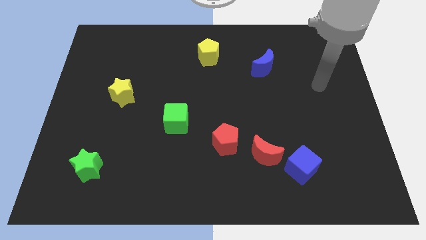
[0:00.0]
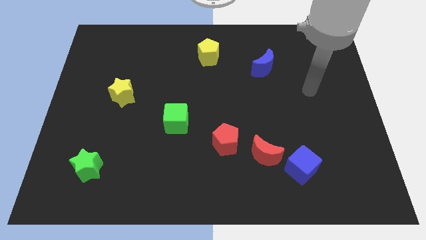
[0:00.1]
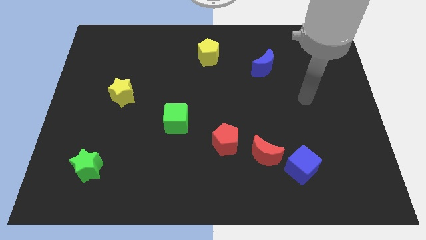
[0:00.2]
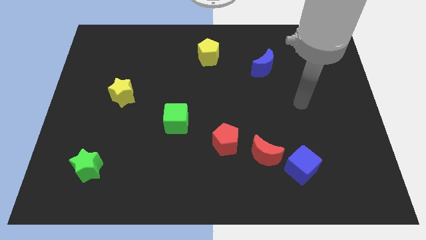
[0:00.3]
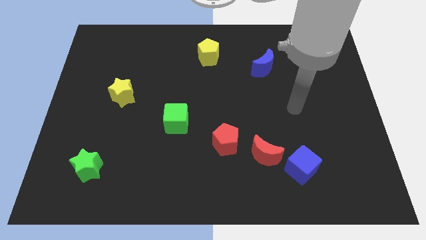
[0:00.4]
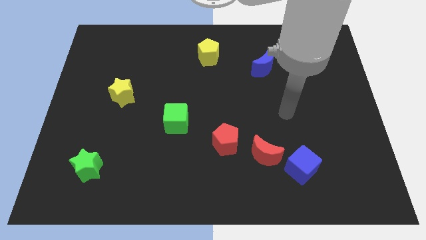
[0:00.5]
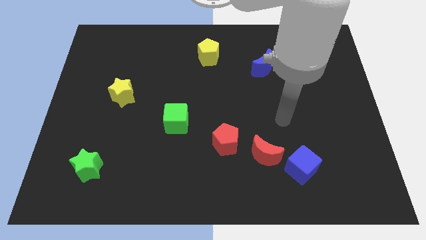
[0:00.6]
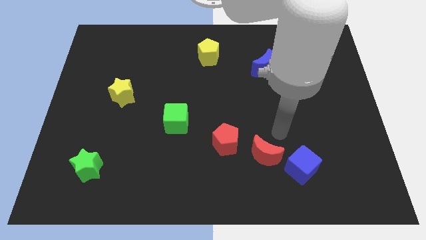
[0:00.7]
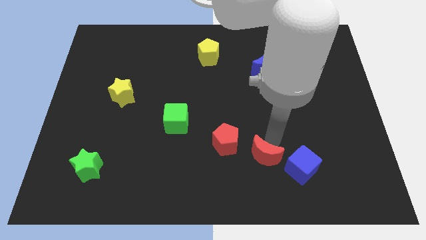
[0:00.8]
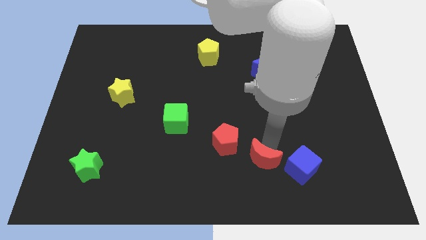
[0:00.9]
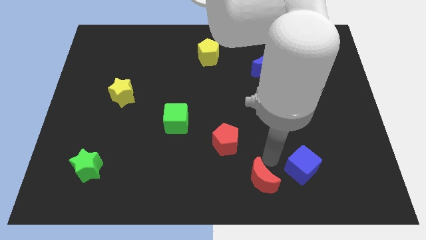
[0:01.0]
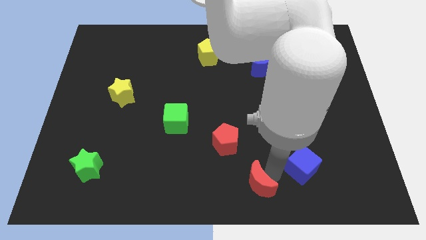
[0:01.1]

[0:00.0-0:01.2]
separate the blue cube from the red moon

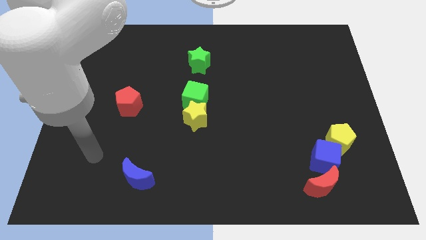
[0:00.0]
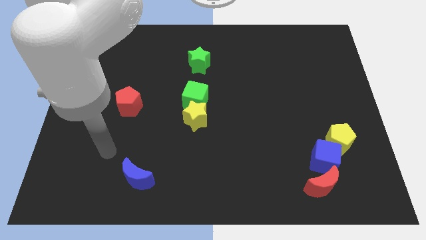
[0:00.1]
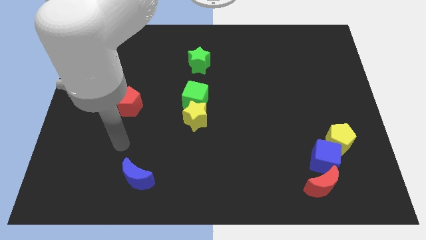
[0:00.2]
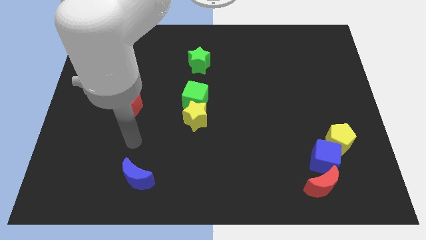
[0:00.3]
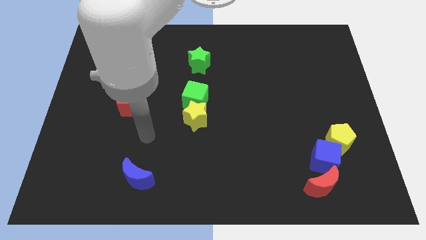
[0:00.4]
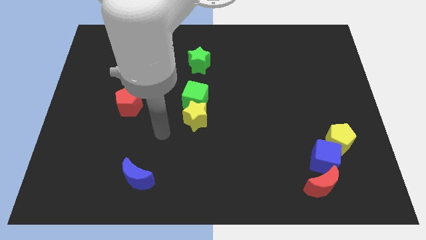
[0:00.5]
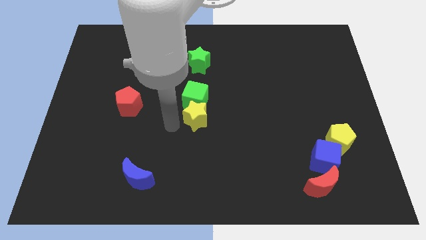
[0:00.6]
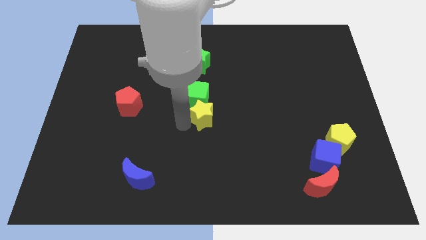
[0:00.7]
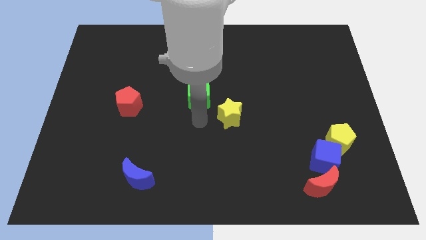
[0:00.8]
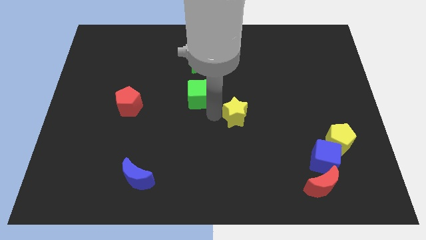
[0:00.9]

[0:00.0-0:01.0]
pull the green cube apart from the yellow star

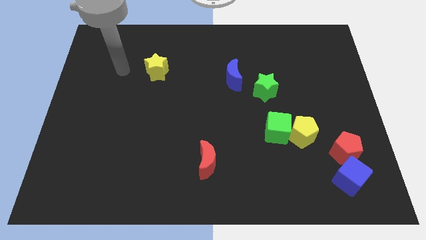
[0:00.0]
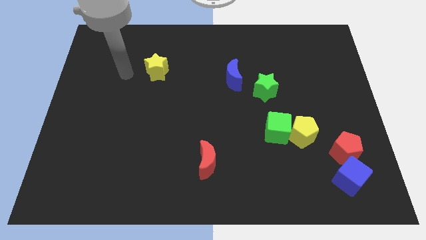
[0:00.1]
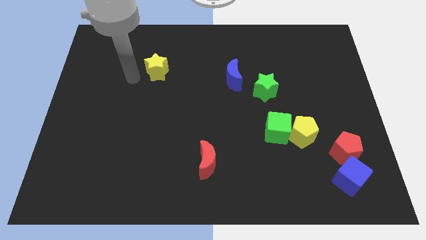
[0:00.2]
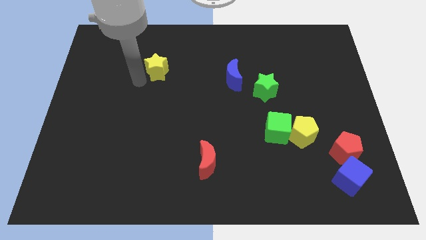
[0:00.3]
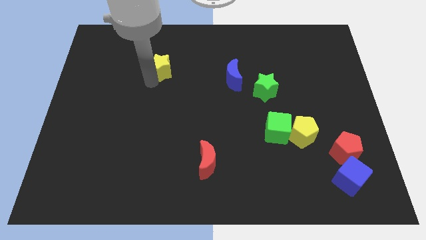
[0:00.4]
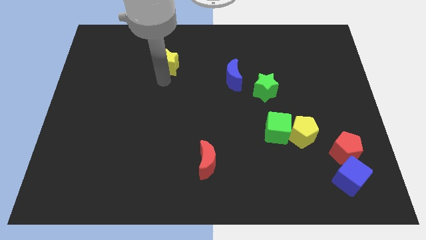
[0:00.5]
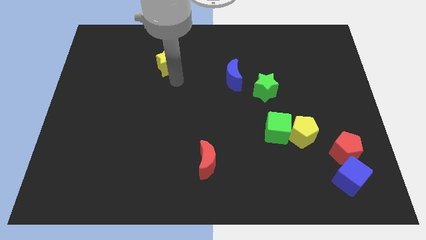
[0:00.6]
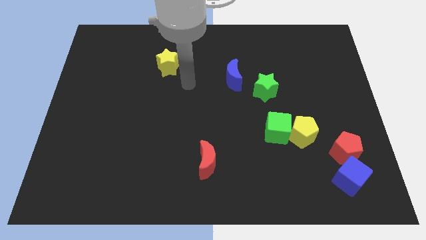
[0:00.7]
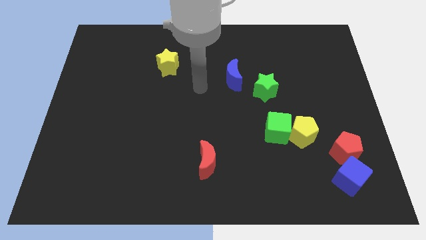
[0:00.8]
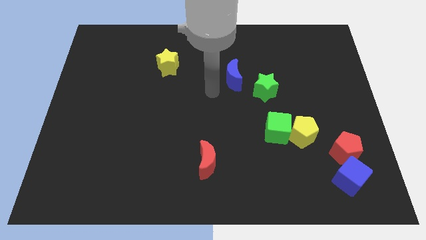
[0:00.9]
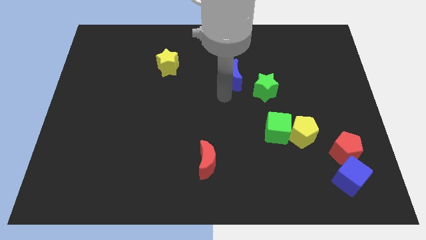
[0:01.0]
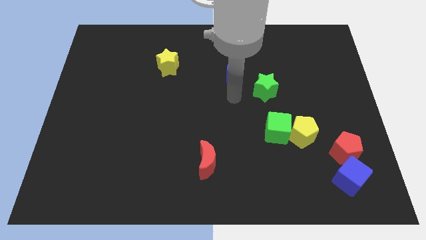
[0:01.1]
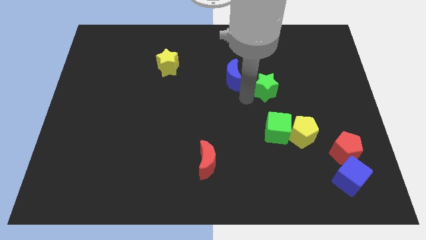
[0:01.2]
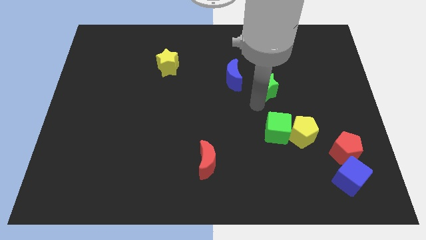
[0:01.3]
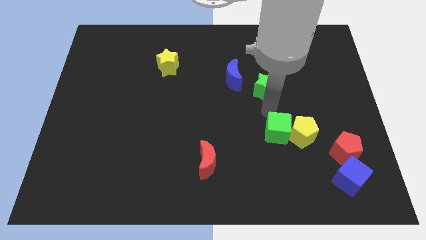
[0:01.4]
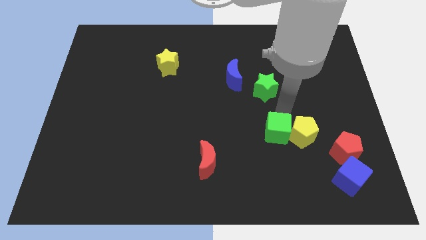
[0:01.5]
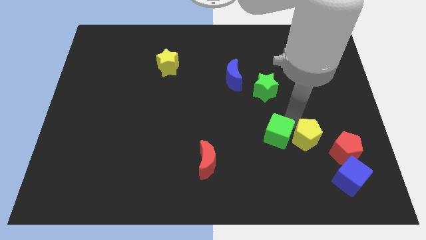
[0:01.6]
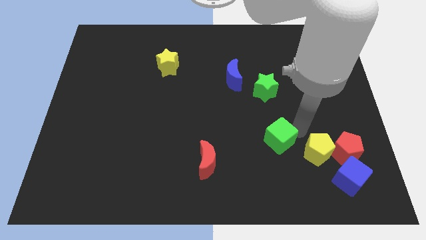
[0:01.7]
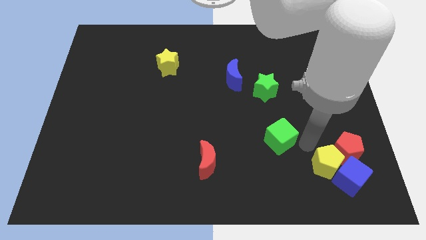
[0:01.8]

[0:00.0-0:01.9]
pull the green cube apart from the yellow pentagon

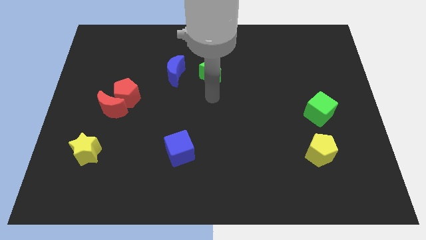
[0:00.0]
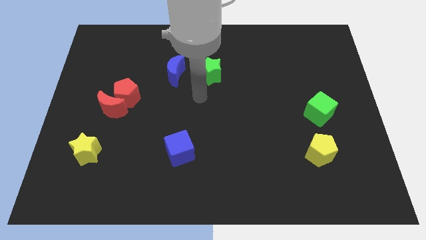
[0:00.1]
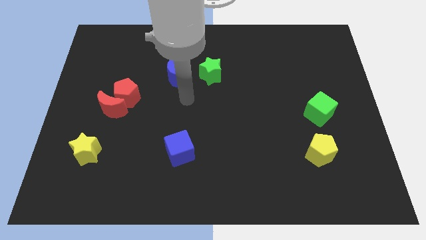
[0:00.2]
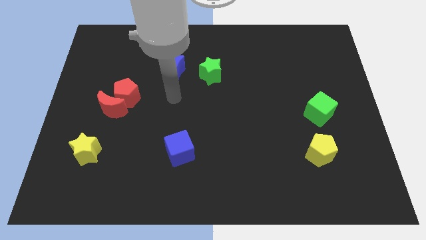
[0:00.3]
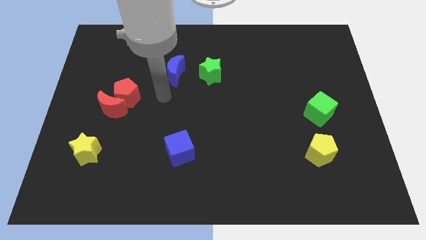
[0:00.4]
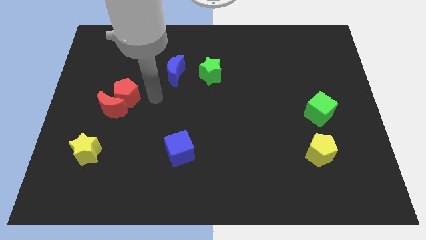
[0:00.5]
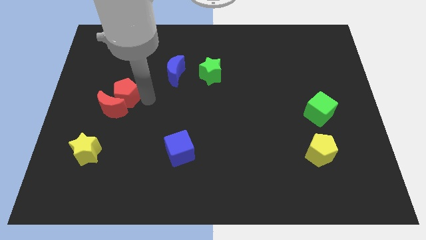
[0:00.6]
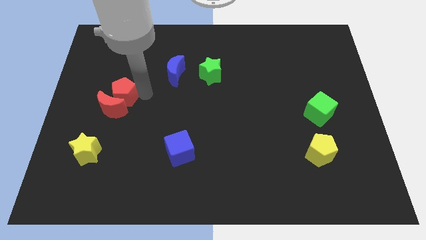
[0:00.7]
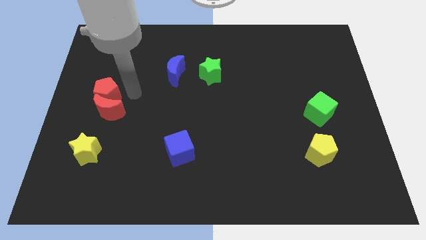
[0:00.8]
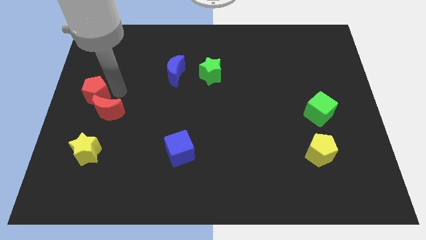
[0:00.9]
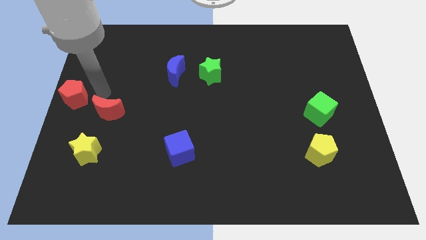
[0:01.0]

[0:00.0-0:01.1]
separate the red moon from the red pentagon

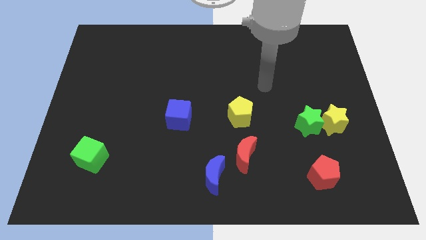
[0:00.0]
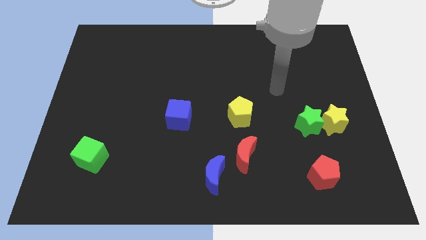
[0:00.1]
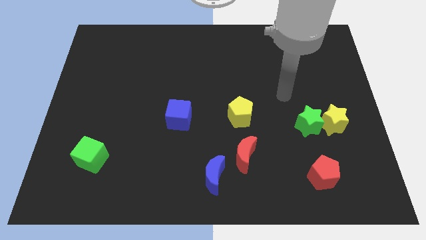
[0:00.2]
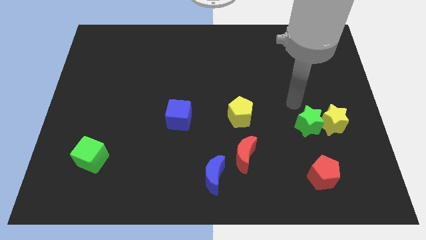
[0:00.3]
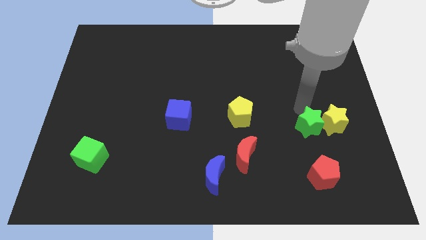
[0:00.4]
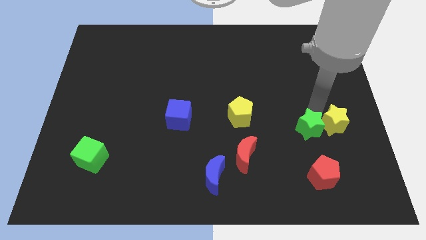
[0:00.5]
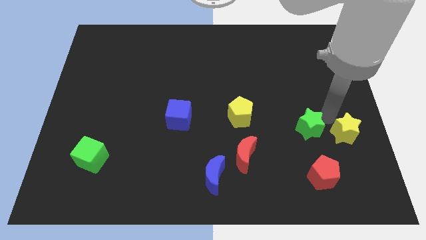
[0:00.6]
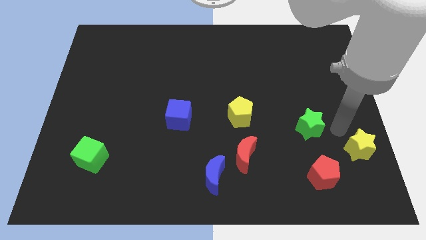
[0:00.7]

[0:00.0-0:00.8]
pull the green star apart from the yellow star

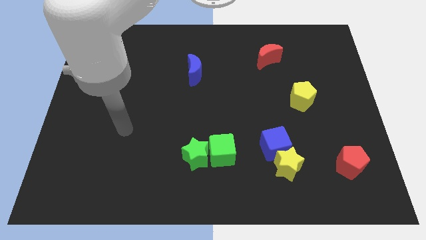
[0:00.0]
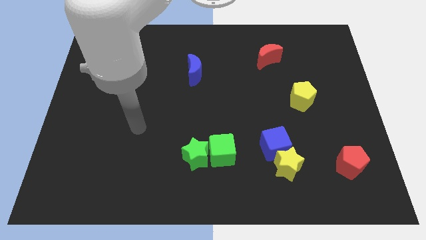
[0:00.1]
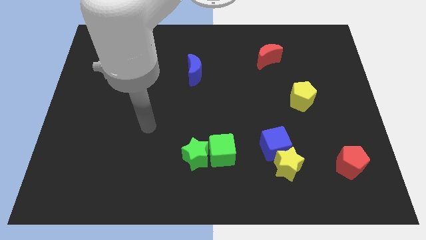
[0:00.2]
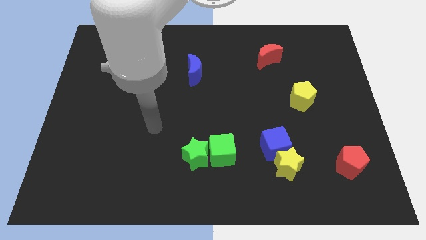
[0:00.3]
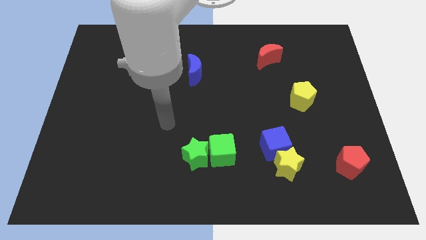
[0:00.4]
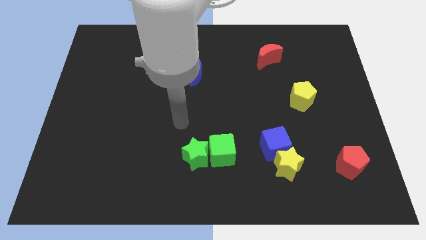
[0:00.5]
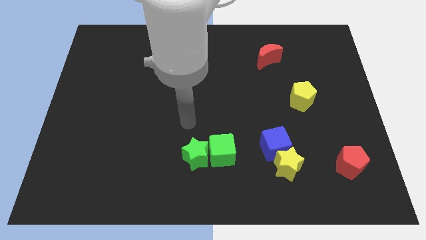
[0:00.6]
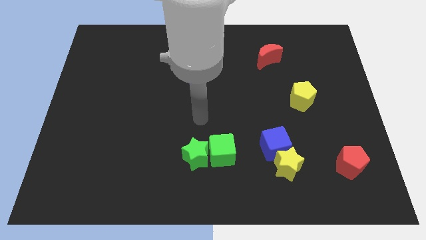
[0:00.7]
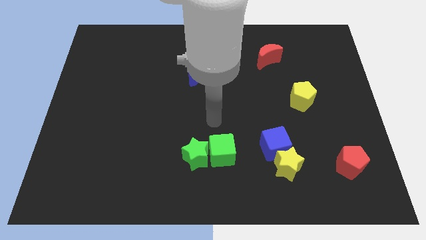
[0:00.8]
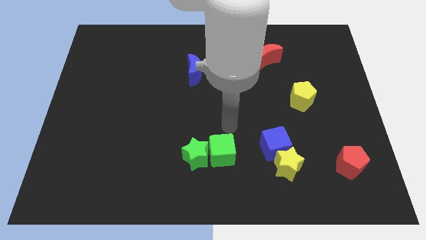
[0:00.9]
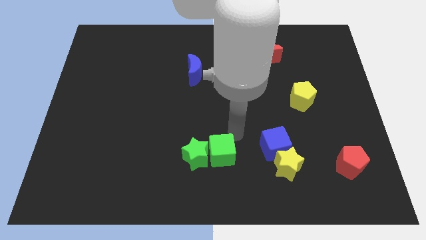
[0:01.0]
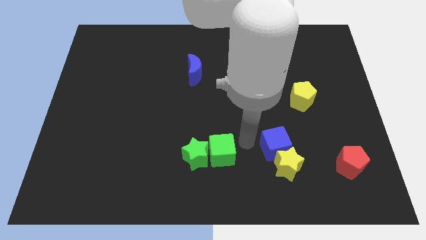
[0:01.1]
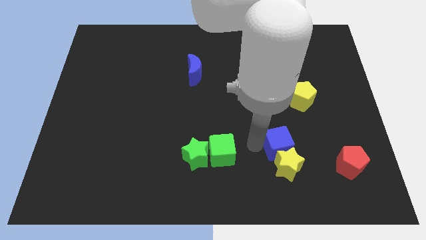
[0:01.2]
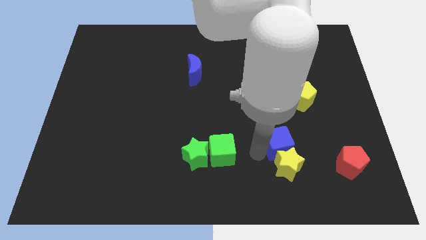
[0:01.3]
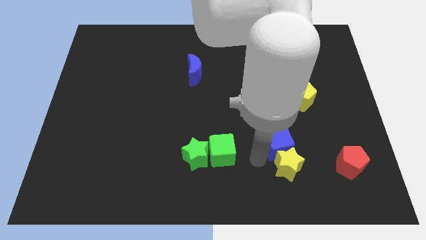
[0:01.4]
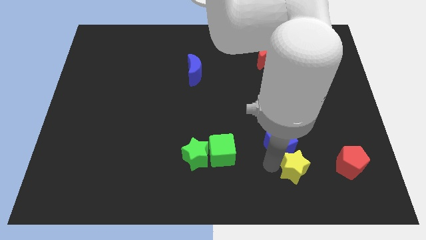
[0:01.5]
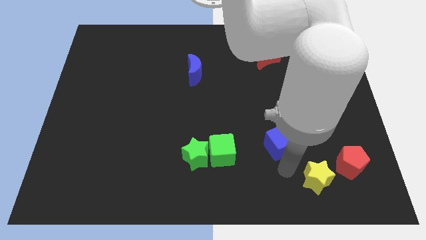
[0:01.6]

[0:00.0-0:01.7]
move the blue cube away from the yellow star

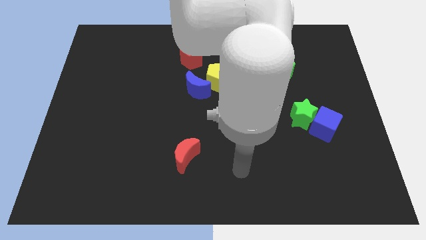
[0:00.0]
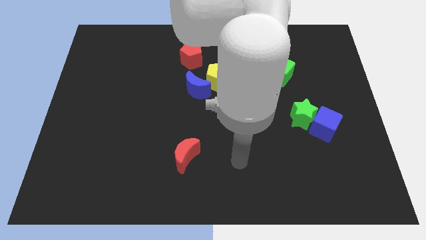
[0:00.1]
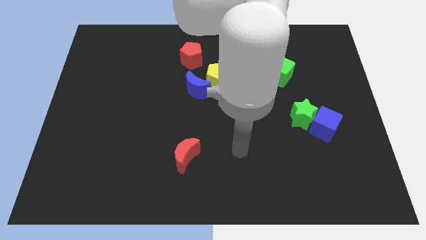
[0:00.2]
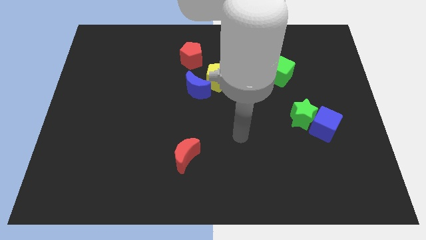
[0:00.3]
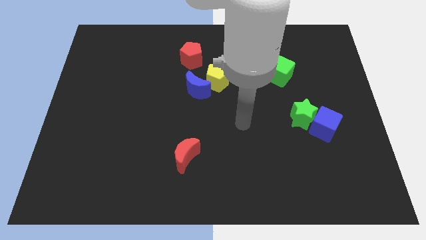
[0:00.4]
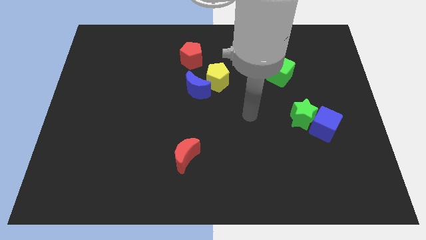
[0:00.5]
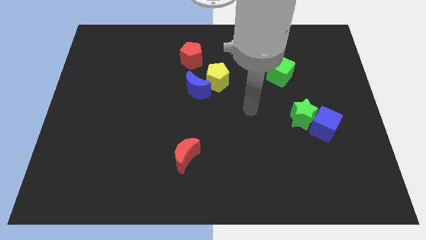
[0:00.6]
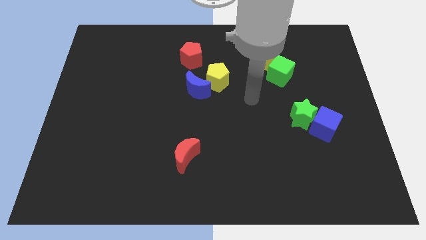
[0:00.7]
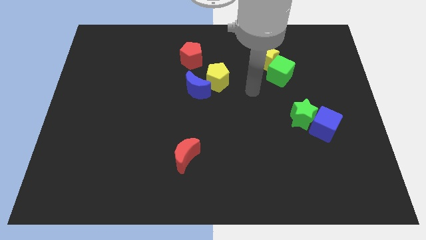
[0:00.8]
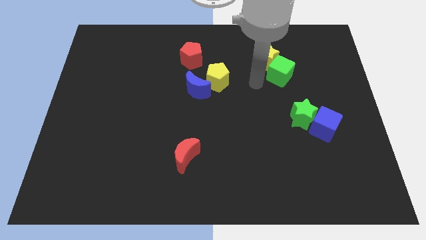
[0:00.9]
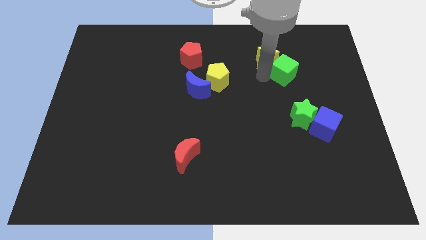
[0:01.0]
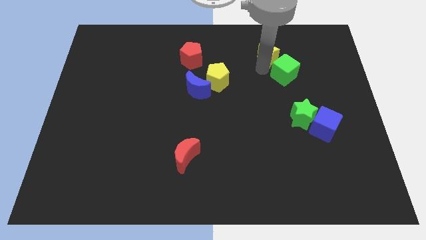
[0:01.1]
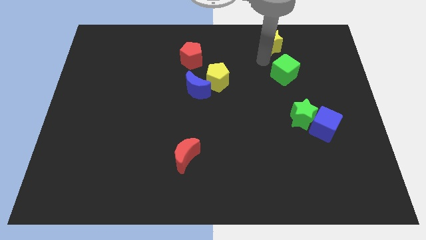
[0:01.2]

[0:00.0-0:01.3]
separate the green cube from the yellow star

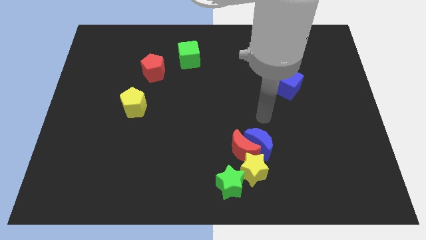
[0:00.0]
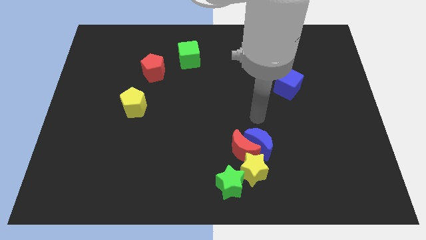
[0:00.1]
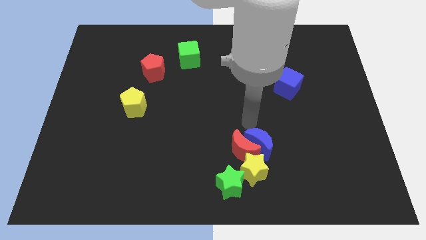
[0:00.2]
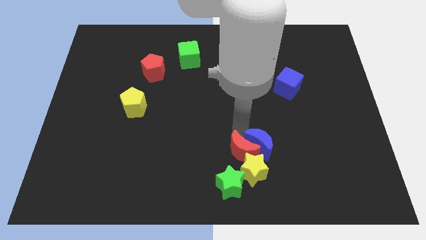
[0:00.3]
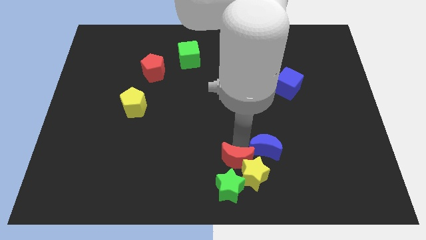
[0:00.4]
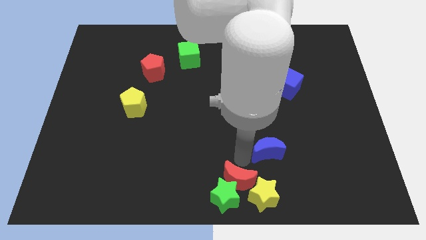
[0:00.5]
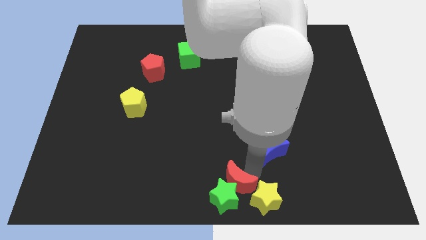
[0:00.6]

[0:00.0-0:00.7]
move the blue moon away from the red moon and yellow star
